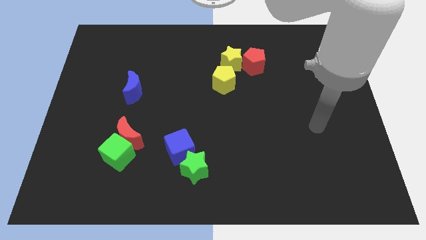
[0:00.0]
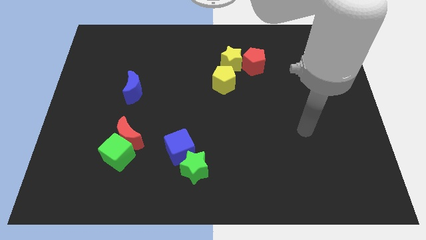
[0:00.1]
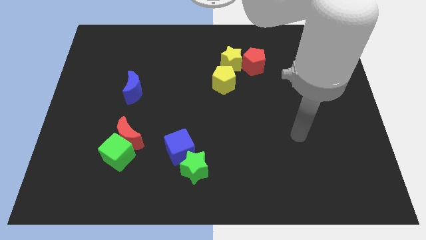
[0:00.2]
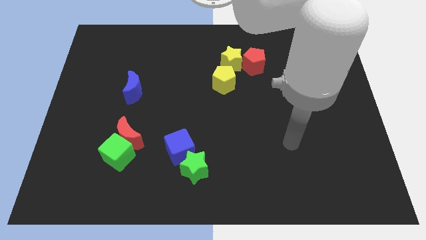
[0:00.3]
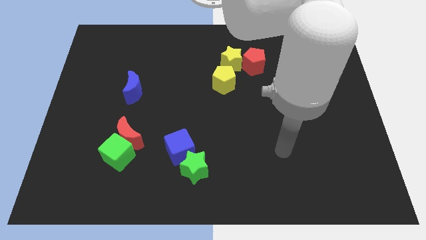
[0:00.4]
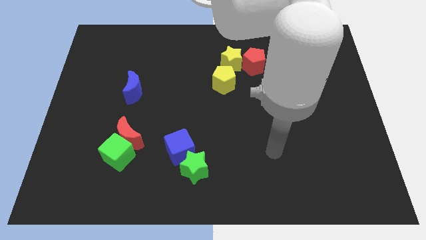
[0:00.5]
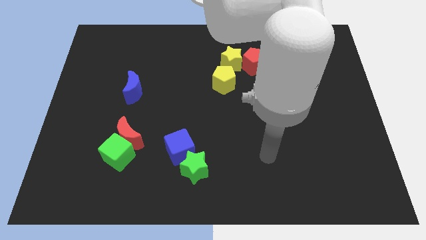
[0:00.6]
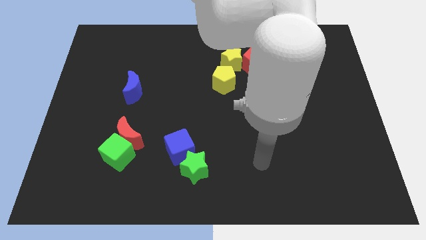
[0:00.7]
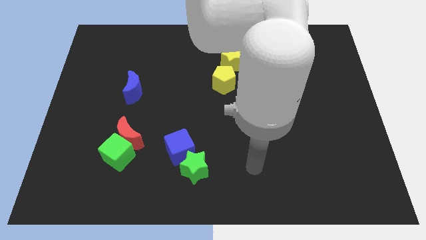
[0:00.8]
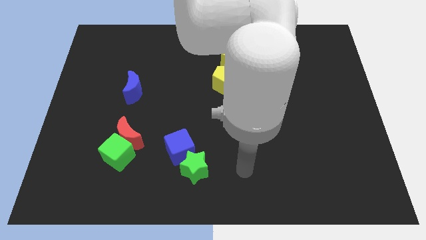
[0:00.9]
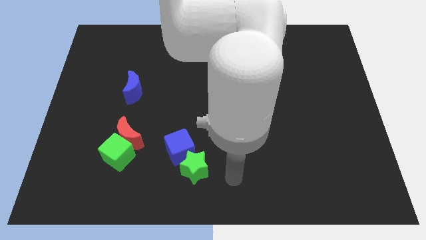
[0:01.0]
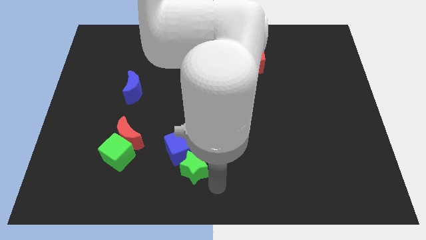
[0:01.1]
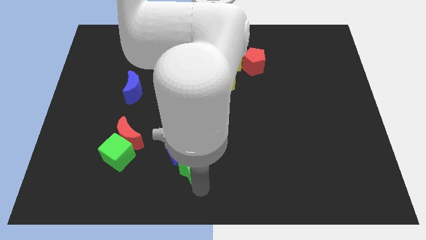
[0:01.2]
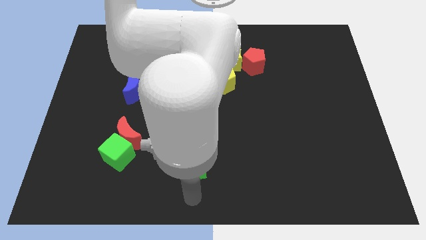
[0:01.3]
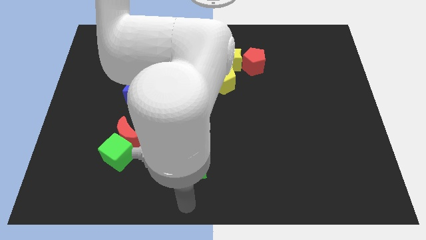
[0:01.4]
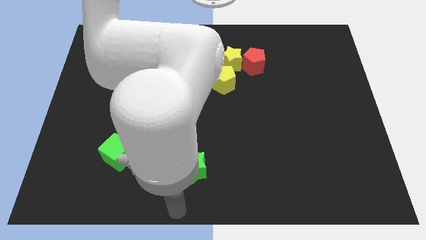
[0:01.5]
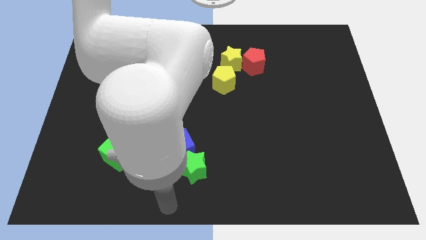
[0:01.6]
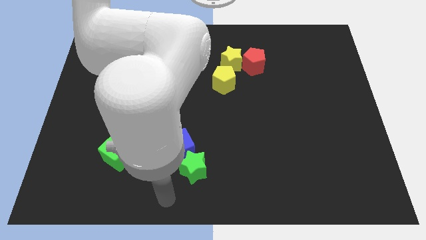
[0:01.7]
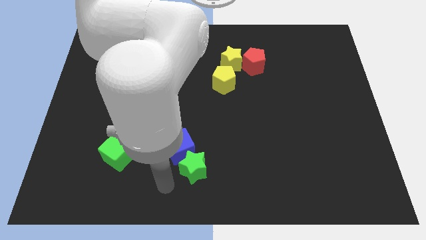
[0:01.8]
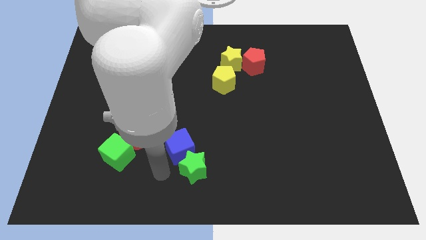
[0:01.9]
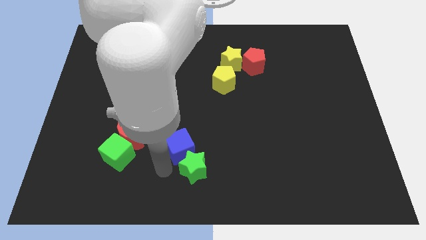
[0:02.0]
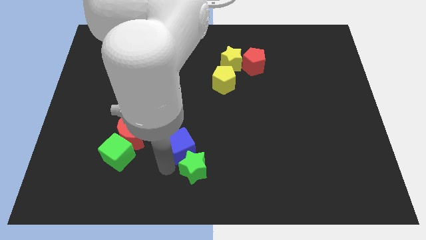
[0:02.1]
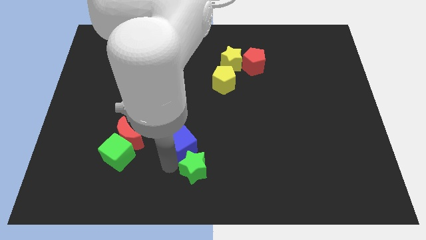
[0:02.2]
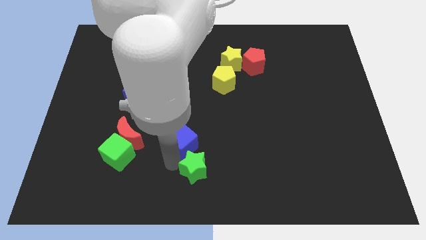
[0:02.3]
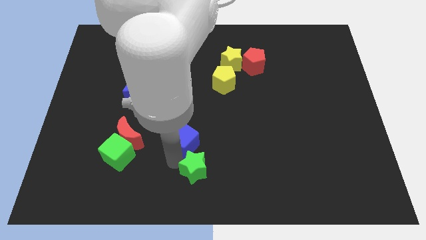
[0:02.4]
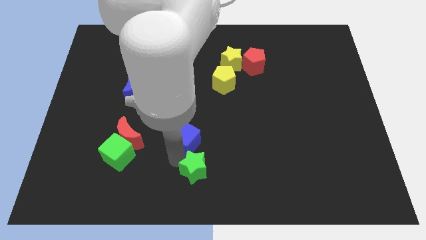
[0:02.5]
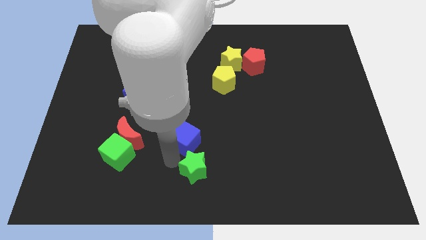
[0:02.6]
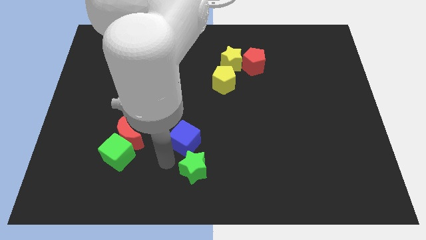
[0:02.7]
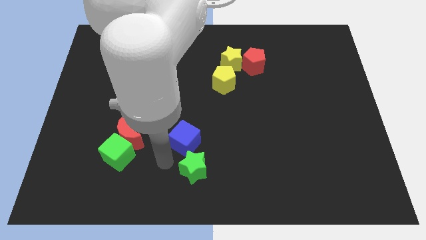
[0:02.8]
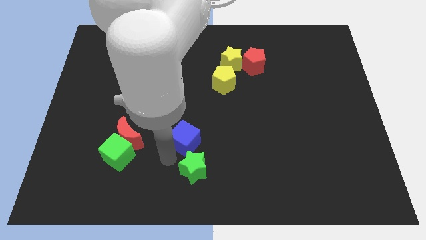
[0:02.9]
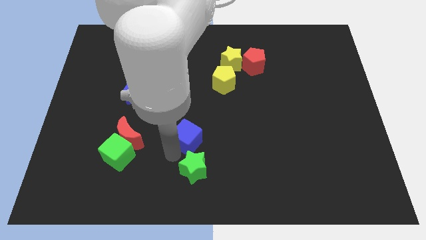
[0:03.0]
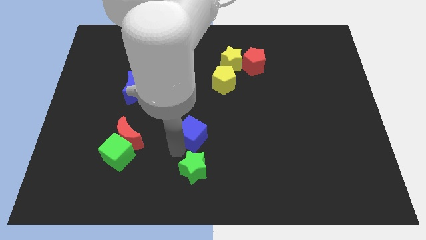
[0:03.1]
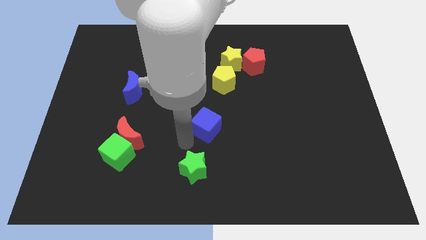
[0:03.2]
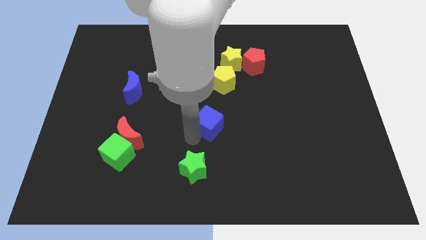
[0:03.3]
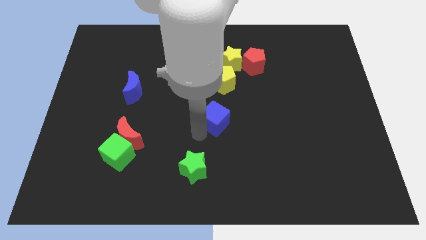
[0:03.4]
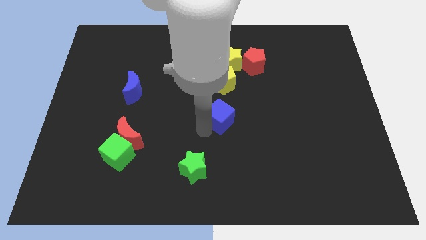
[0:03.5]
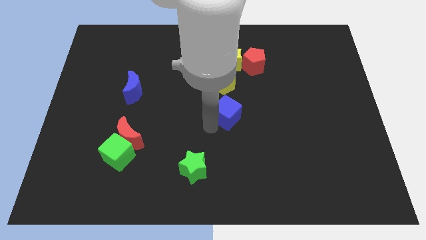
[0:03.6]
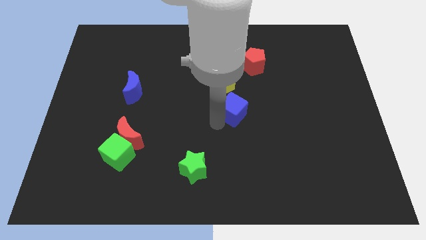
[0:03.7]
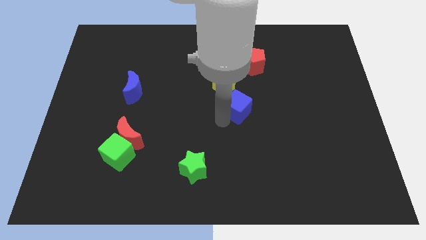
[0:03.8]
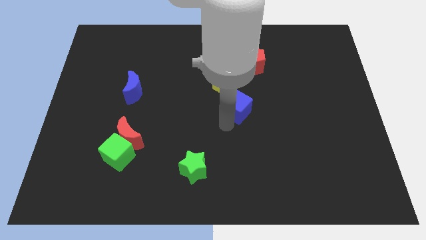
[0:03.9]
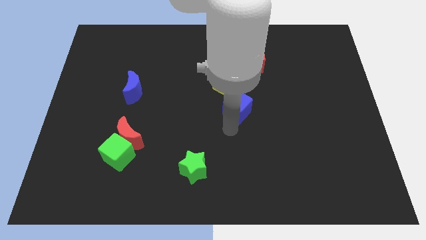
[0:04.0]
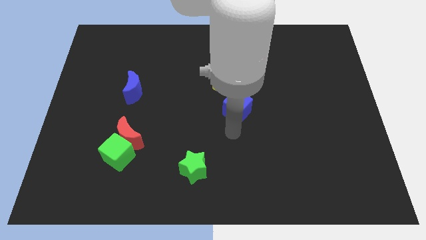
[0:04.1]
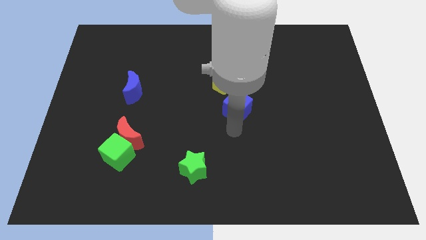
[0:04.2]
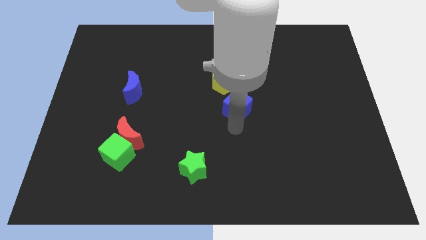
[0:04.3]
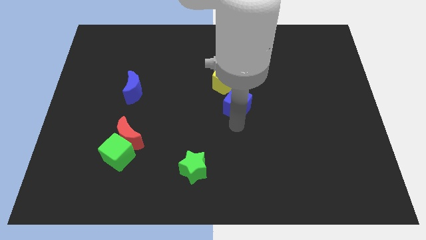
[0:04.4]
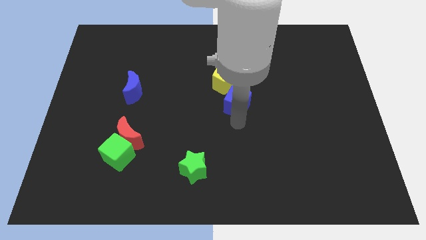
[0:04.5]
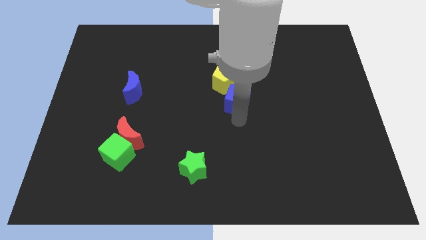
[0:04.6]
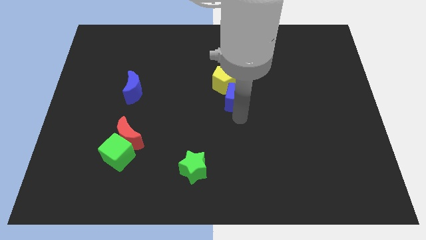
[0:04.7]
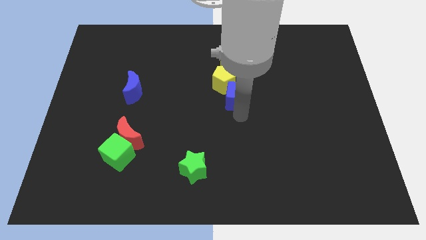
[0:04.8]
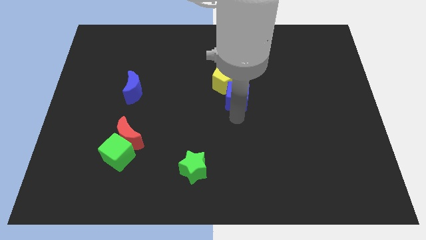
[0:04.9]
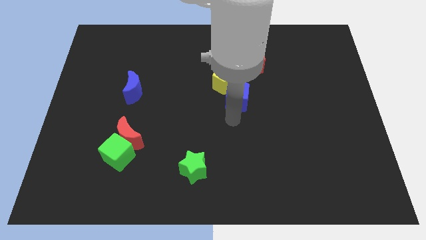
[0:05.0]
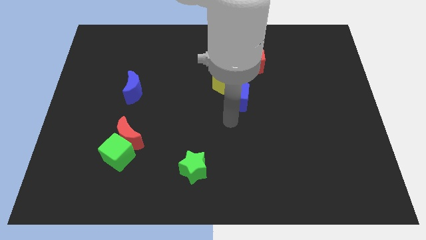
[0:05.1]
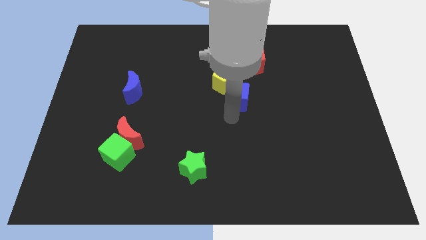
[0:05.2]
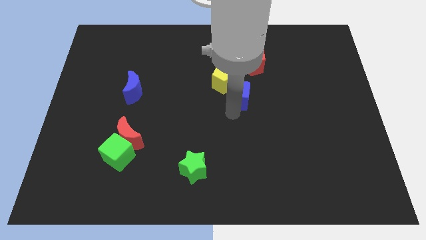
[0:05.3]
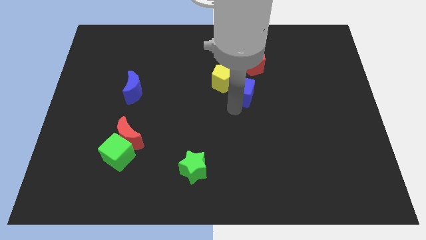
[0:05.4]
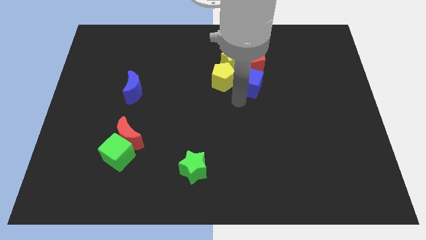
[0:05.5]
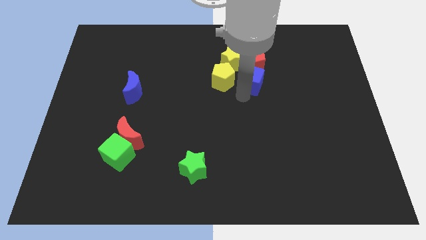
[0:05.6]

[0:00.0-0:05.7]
put the blue cube next to the red pentagon
